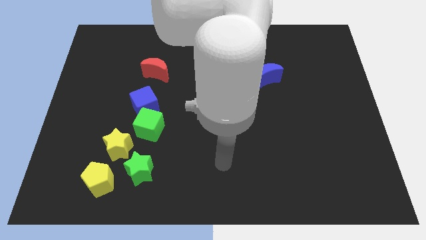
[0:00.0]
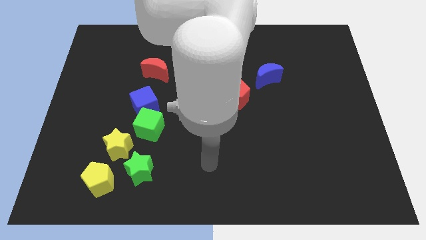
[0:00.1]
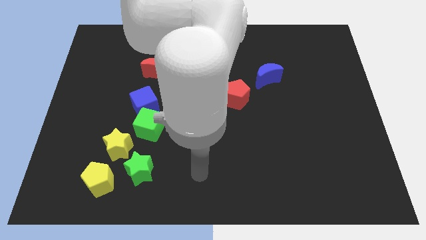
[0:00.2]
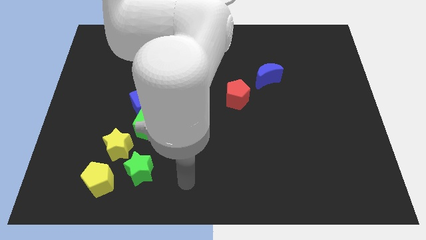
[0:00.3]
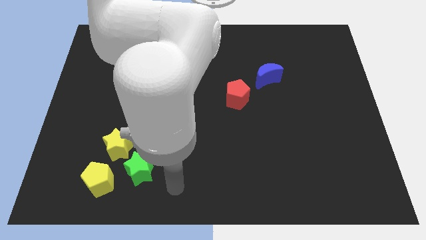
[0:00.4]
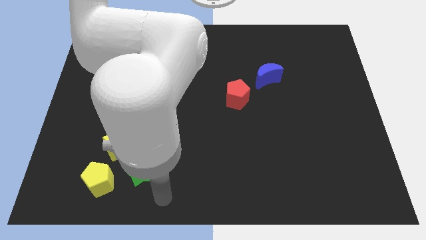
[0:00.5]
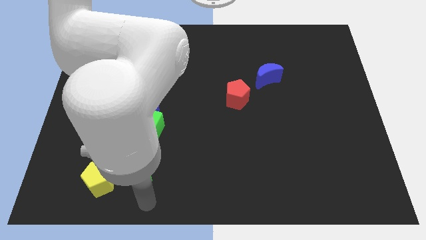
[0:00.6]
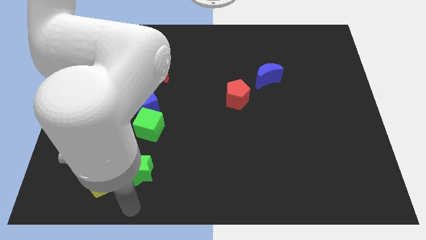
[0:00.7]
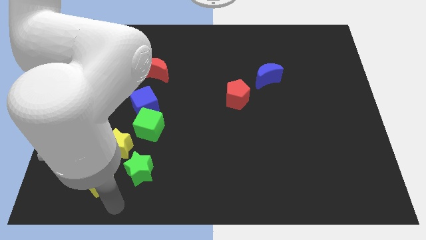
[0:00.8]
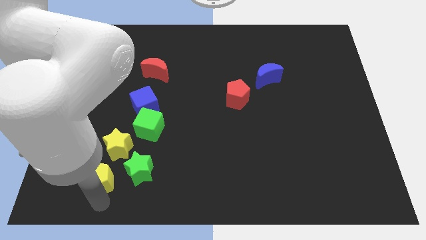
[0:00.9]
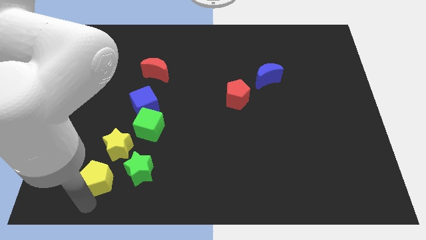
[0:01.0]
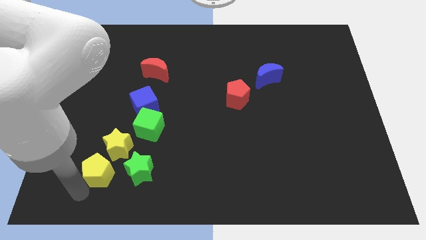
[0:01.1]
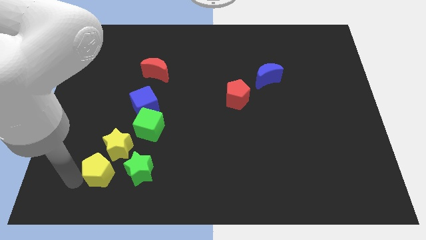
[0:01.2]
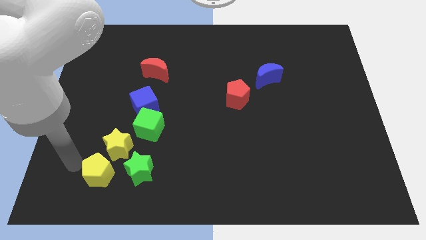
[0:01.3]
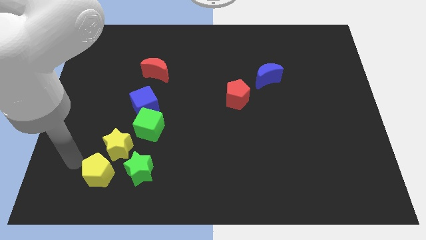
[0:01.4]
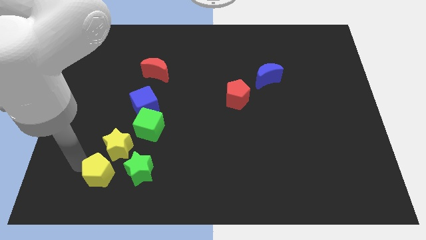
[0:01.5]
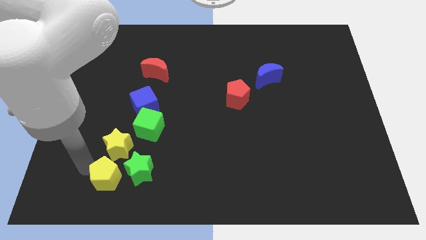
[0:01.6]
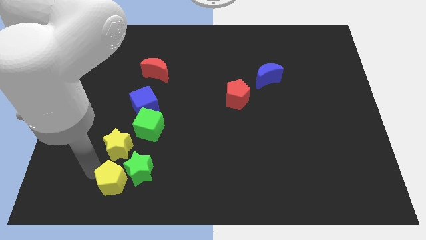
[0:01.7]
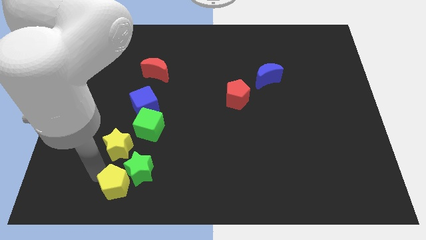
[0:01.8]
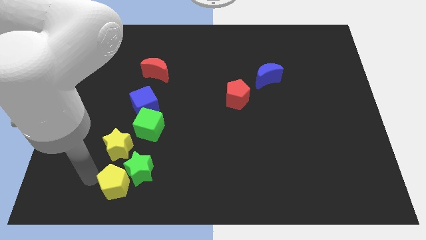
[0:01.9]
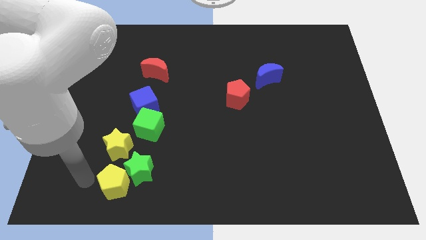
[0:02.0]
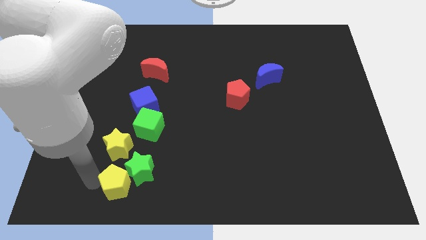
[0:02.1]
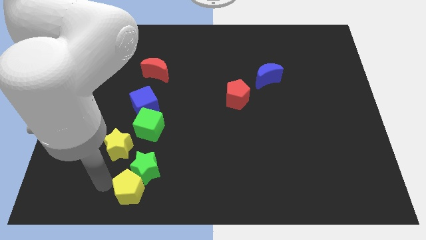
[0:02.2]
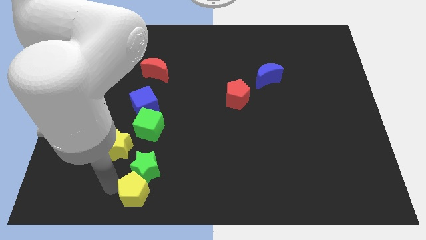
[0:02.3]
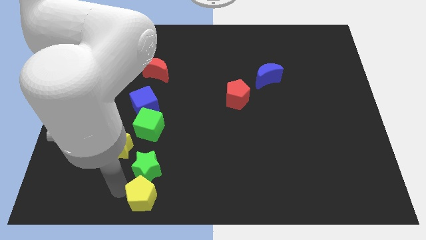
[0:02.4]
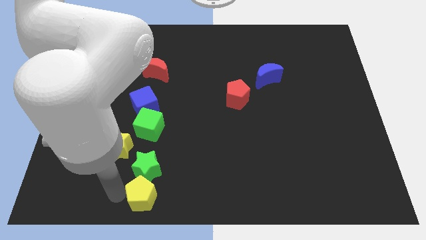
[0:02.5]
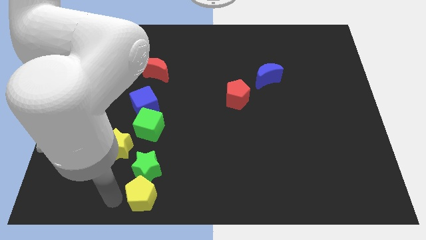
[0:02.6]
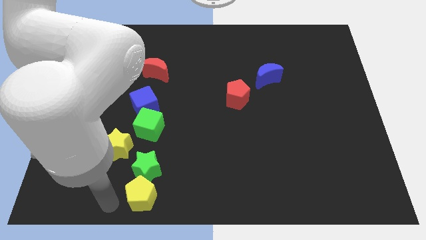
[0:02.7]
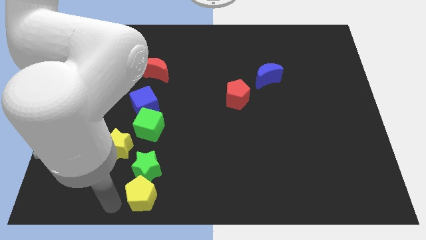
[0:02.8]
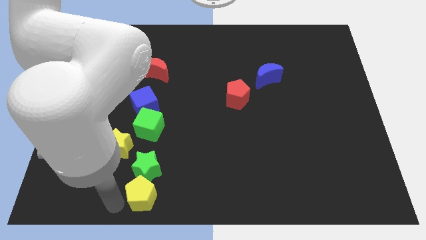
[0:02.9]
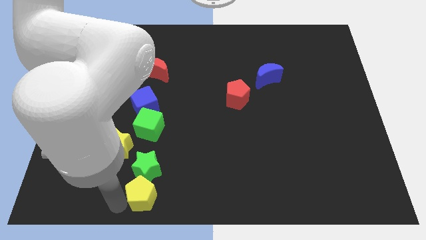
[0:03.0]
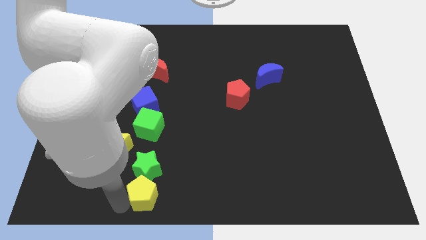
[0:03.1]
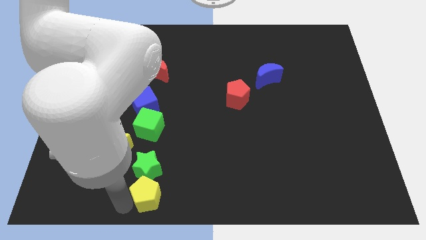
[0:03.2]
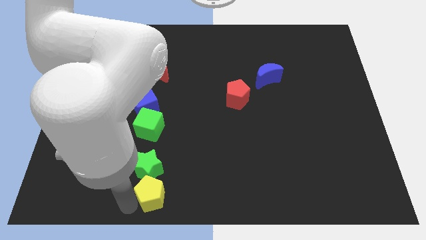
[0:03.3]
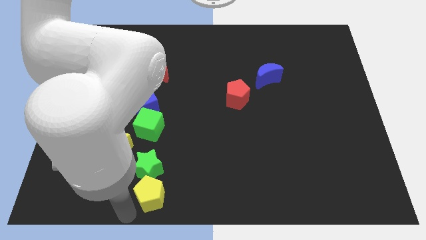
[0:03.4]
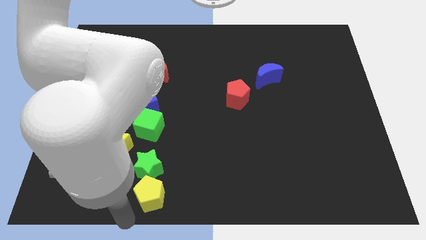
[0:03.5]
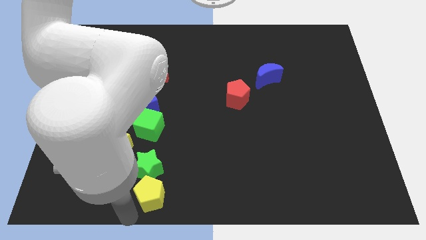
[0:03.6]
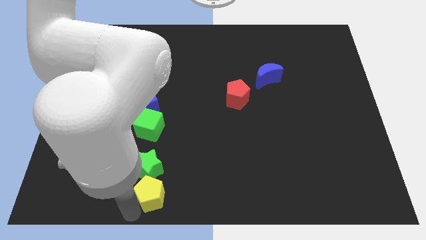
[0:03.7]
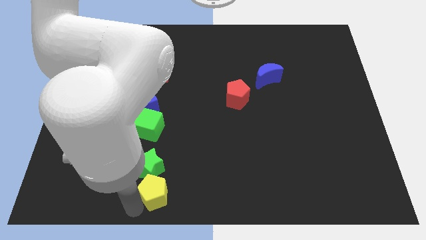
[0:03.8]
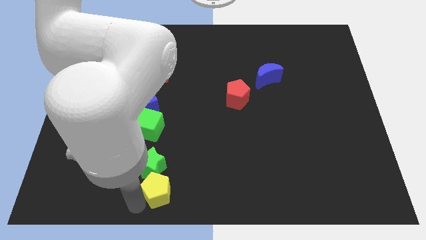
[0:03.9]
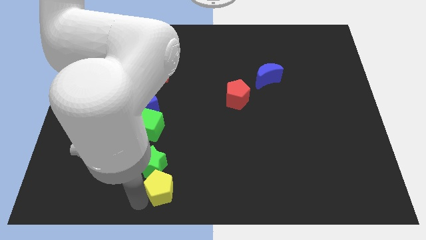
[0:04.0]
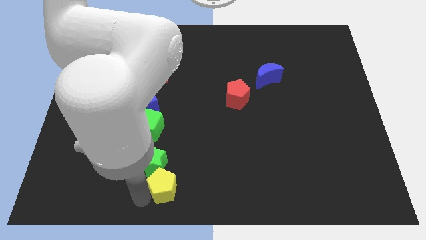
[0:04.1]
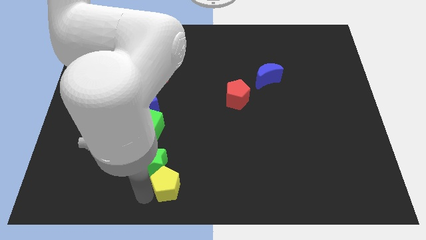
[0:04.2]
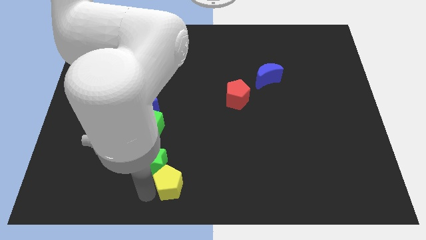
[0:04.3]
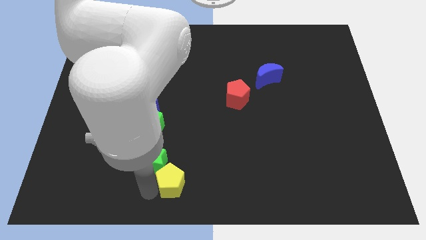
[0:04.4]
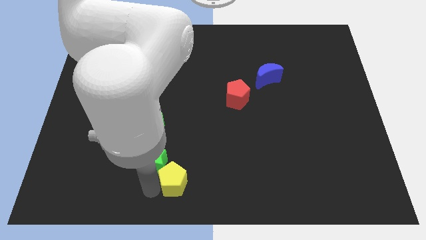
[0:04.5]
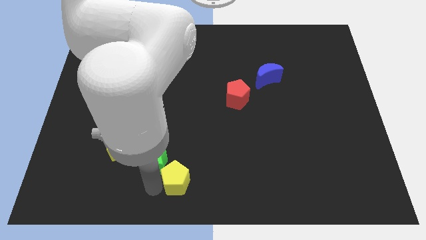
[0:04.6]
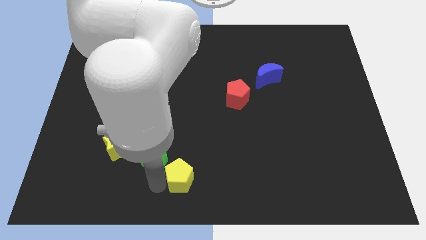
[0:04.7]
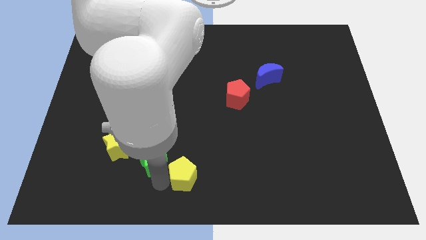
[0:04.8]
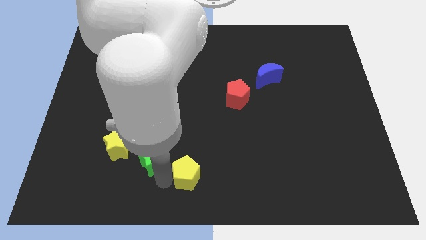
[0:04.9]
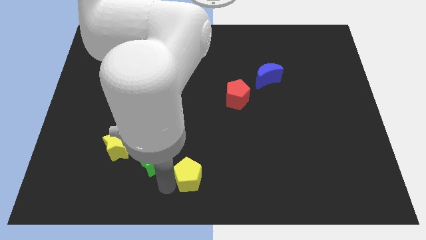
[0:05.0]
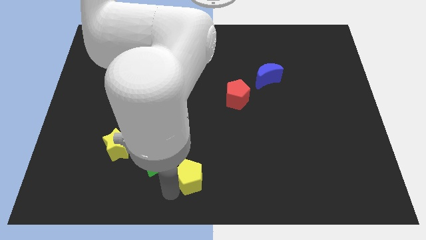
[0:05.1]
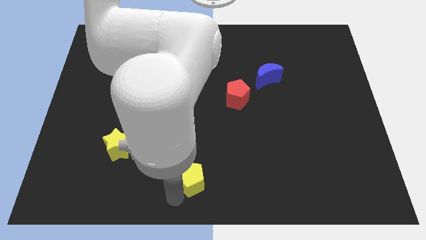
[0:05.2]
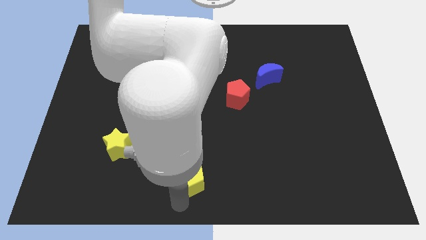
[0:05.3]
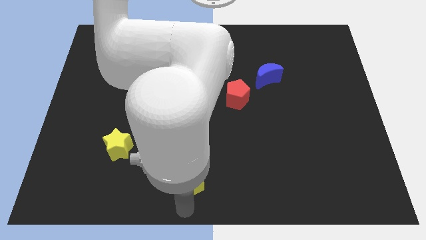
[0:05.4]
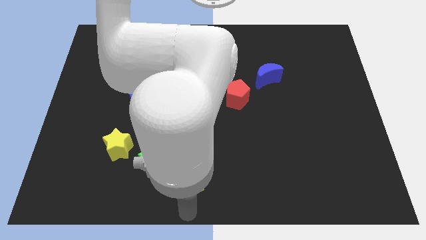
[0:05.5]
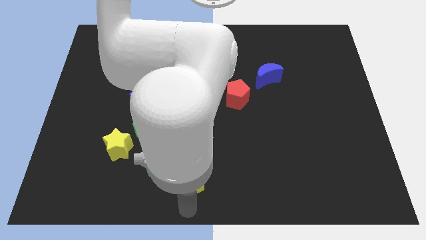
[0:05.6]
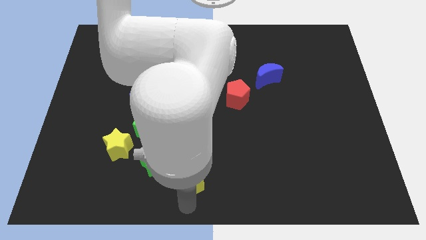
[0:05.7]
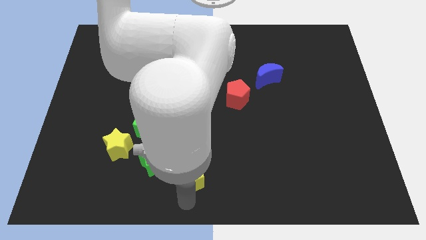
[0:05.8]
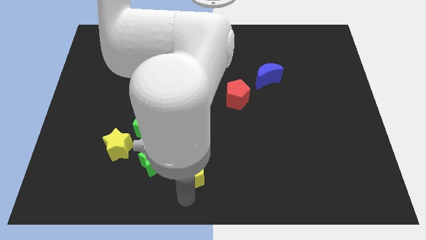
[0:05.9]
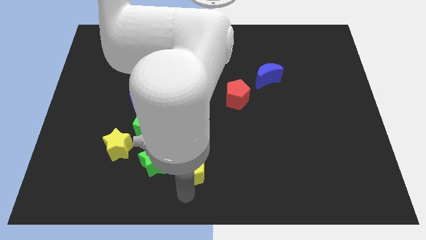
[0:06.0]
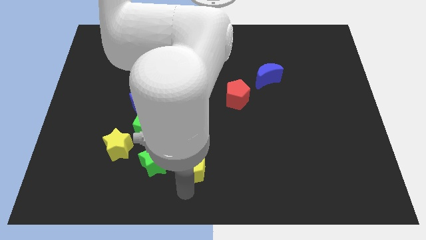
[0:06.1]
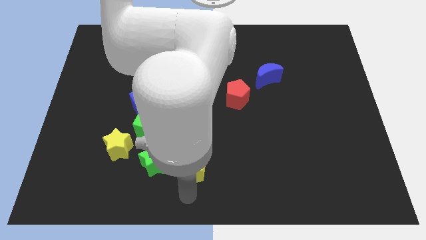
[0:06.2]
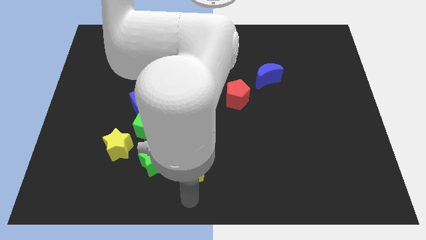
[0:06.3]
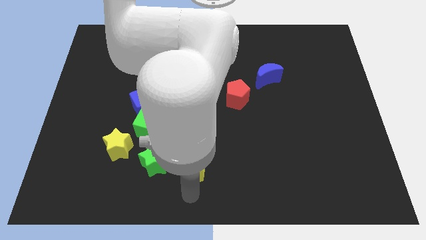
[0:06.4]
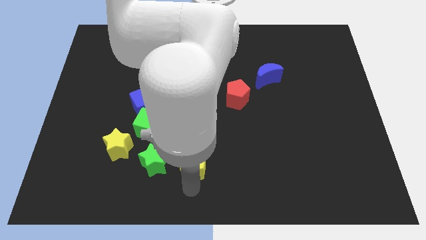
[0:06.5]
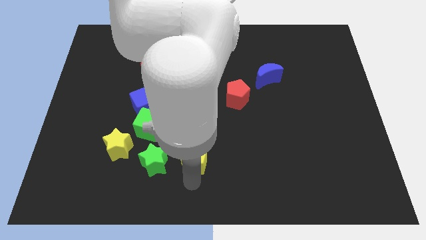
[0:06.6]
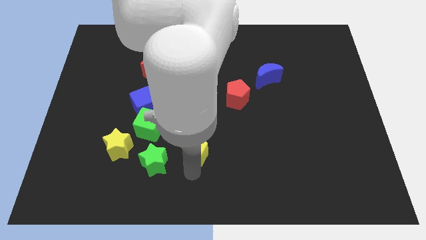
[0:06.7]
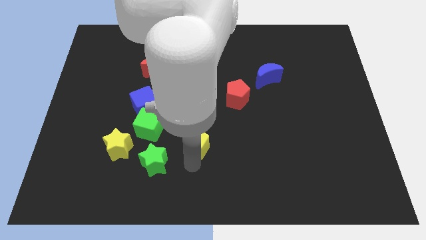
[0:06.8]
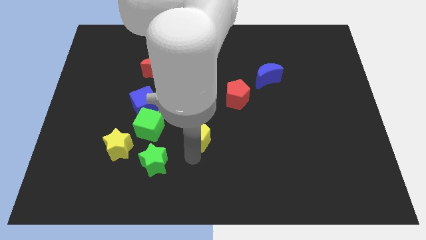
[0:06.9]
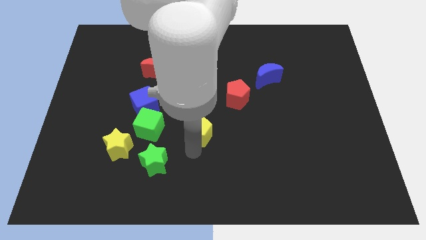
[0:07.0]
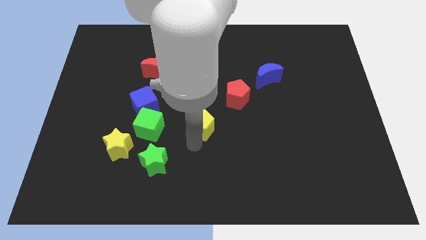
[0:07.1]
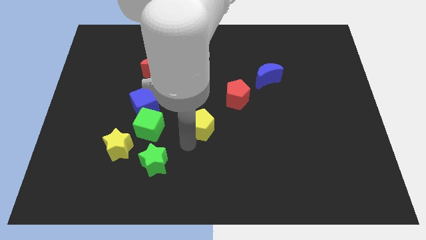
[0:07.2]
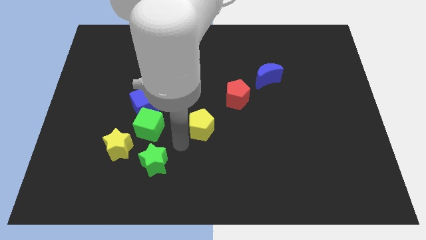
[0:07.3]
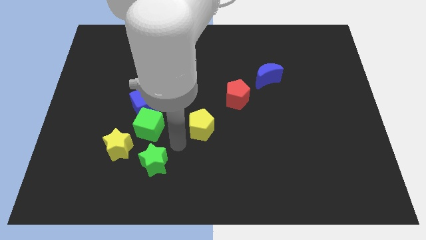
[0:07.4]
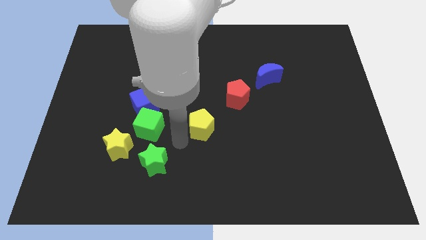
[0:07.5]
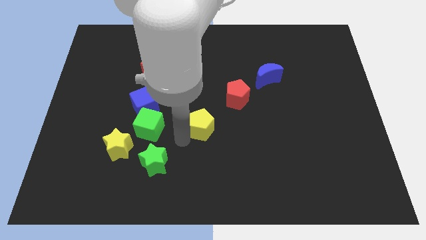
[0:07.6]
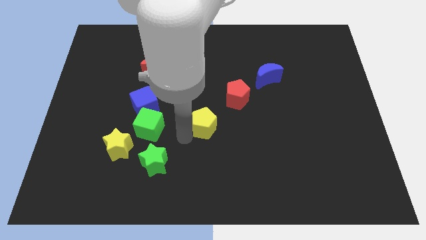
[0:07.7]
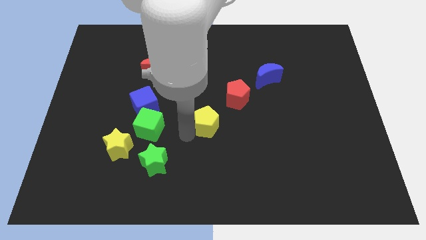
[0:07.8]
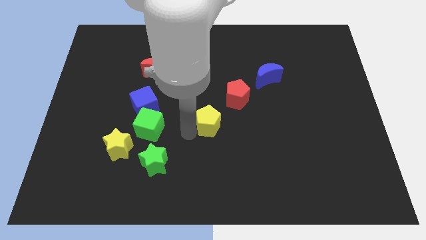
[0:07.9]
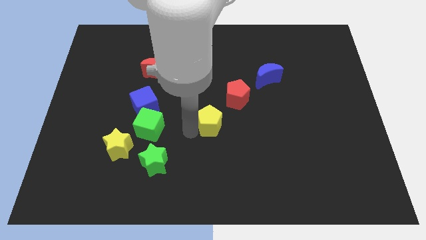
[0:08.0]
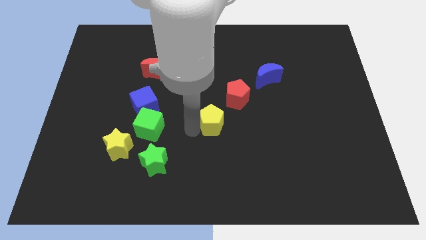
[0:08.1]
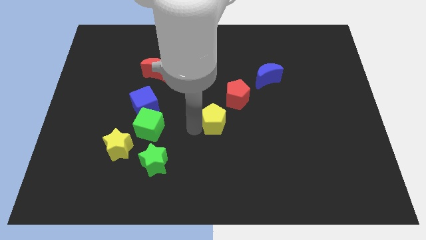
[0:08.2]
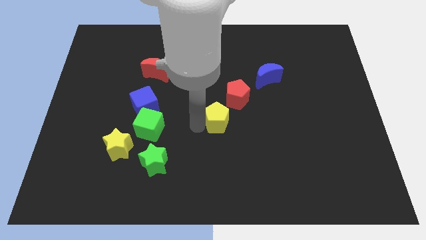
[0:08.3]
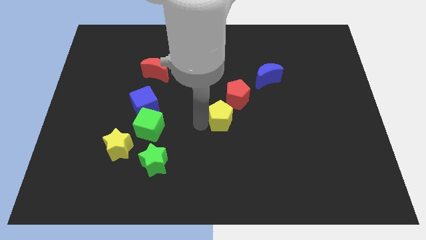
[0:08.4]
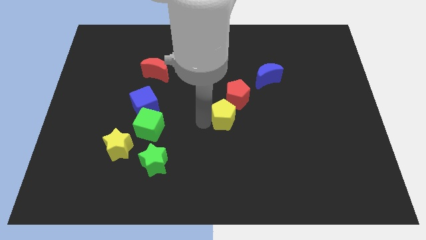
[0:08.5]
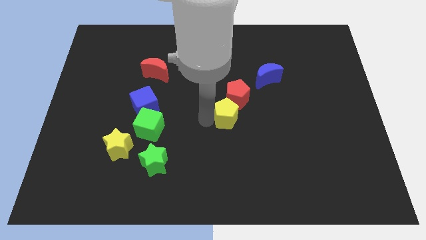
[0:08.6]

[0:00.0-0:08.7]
move the yellow pentagon next to the red pentagon

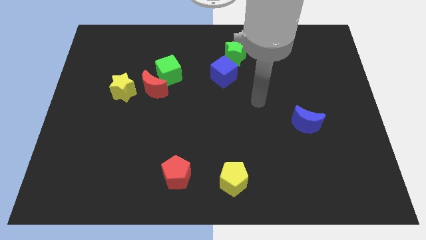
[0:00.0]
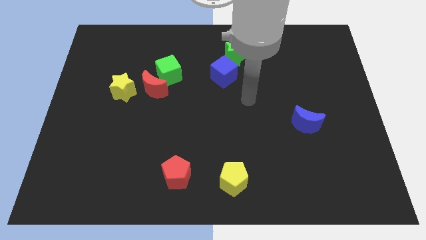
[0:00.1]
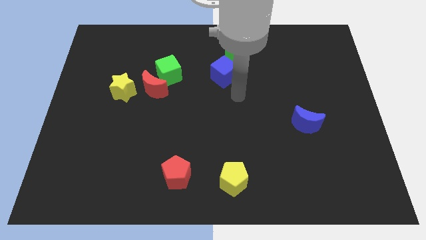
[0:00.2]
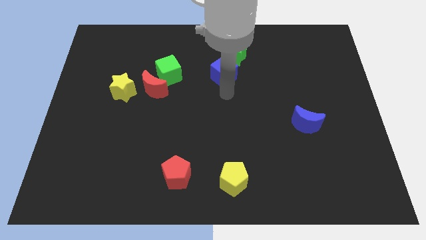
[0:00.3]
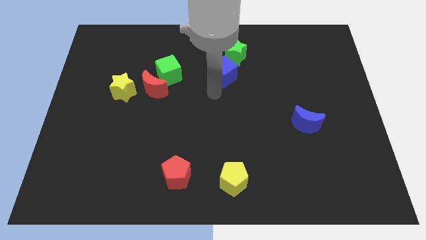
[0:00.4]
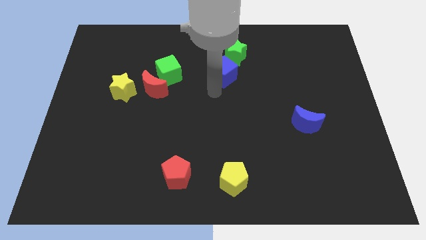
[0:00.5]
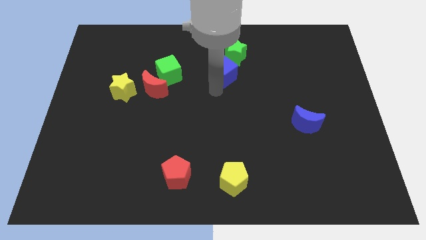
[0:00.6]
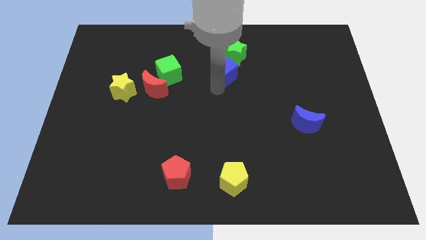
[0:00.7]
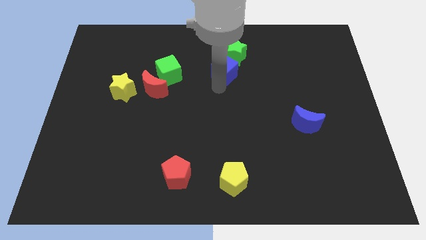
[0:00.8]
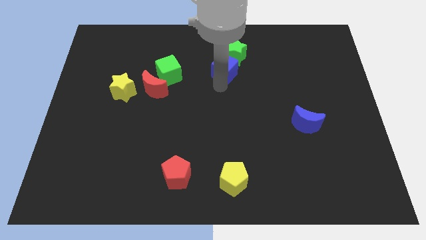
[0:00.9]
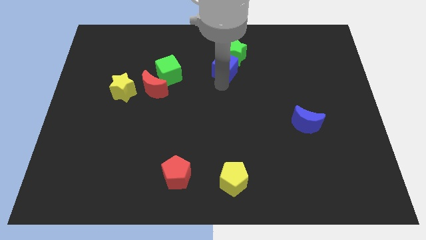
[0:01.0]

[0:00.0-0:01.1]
push the blue cube next to the green star
